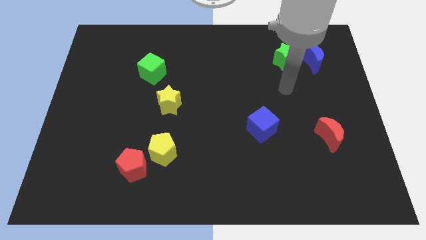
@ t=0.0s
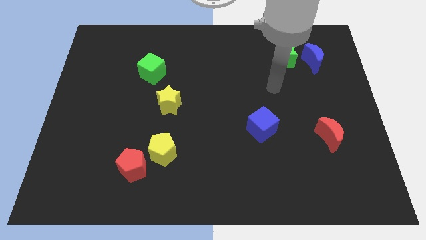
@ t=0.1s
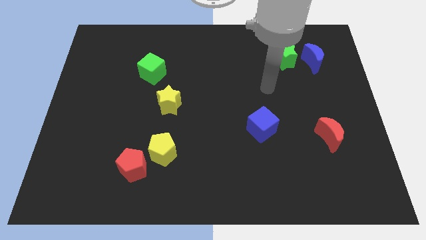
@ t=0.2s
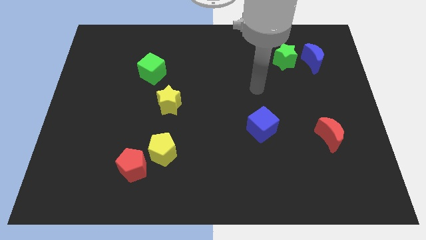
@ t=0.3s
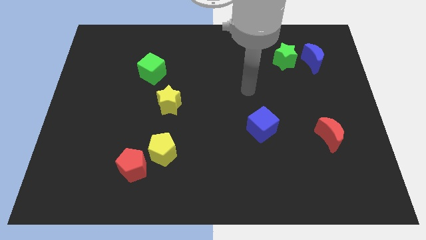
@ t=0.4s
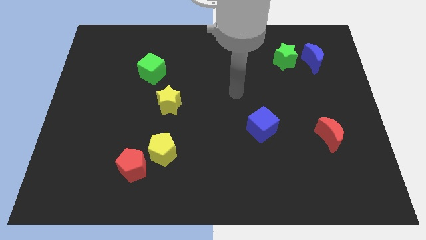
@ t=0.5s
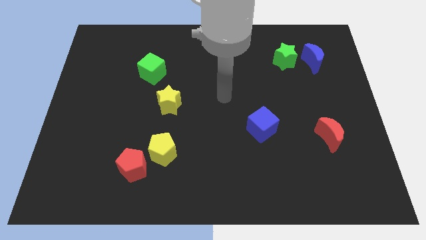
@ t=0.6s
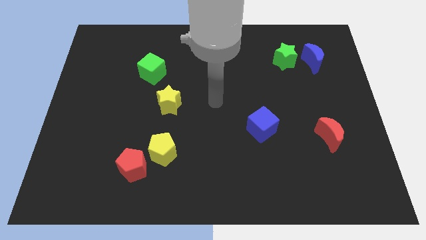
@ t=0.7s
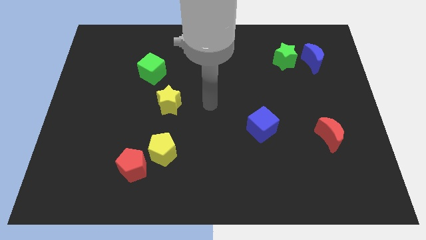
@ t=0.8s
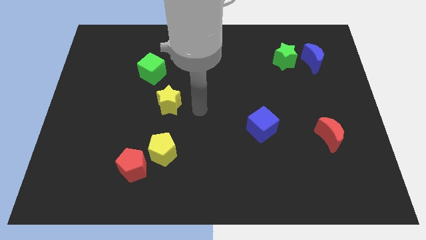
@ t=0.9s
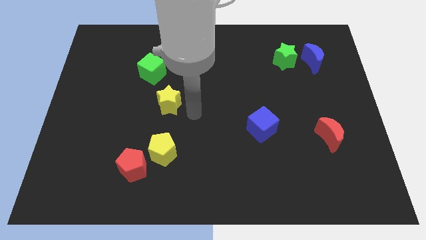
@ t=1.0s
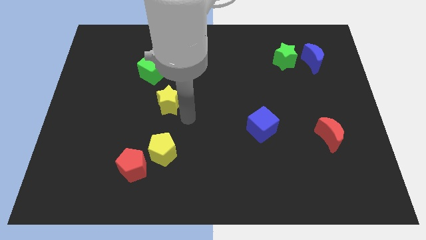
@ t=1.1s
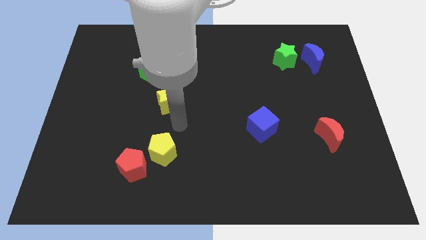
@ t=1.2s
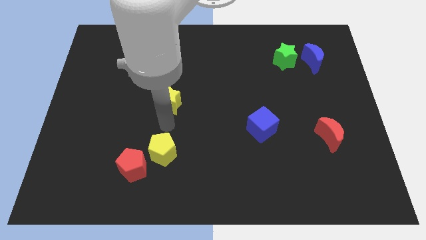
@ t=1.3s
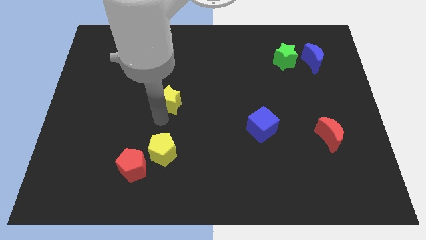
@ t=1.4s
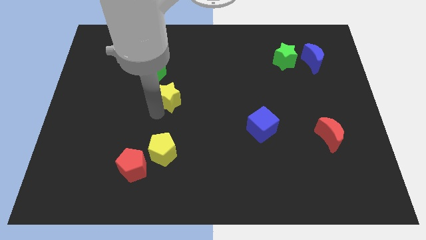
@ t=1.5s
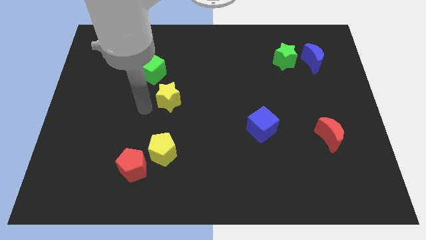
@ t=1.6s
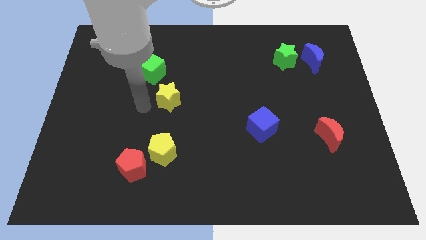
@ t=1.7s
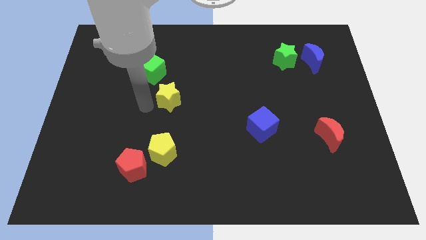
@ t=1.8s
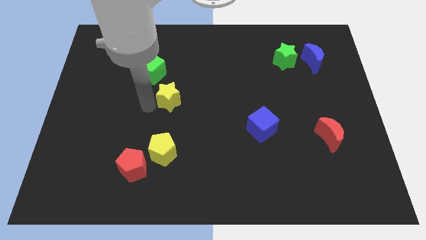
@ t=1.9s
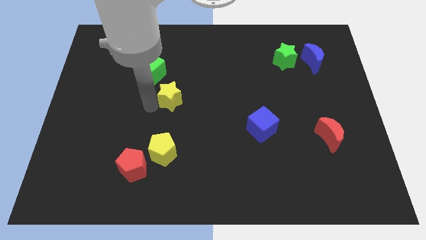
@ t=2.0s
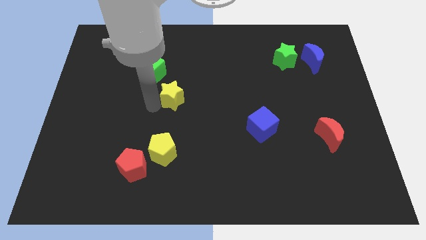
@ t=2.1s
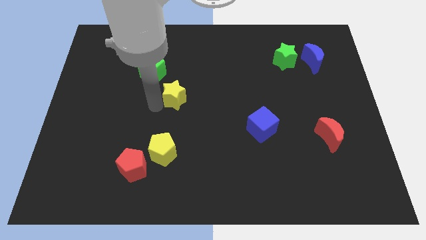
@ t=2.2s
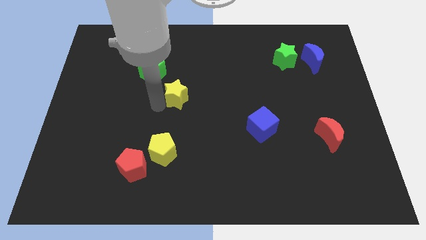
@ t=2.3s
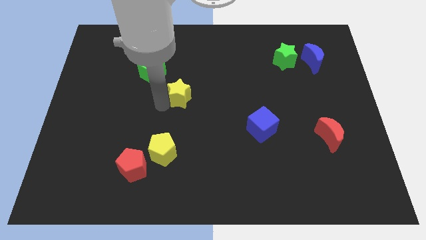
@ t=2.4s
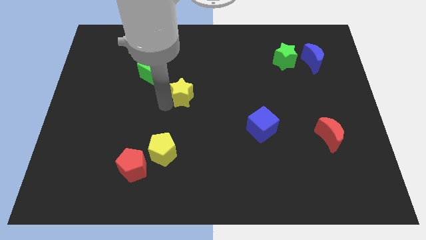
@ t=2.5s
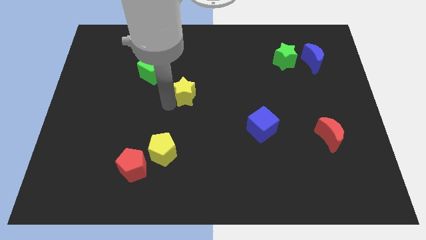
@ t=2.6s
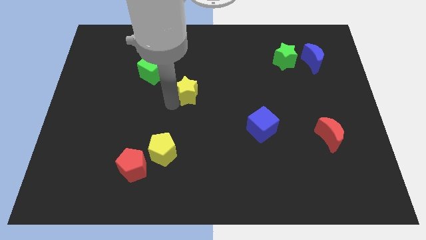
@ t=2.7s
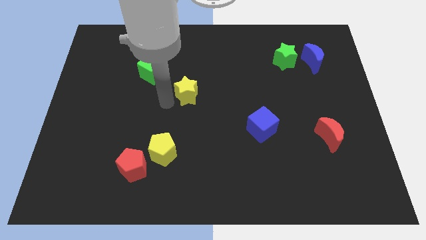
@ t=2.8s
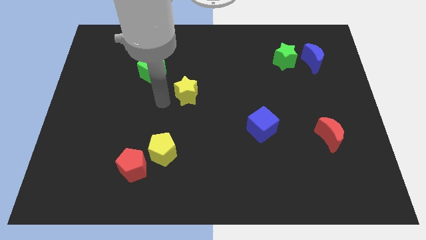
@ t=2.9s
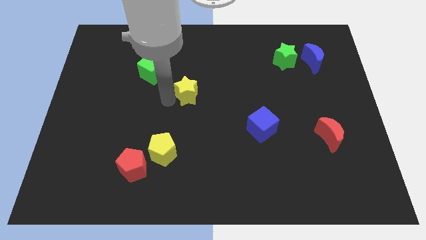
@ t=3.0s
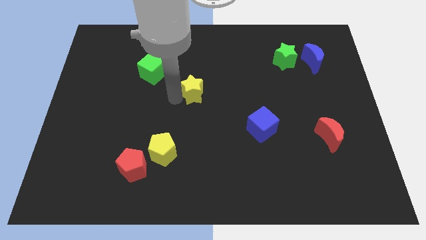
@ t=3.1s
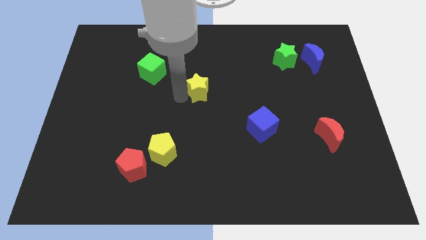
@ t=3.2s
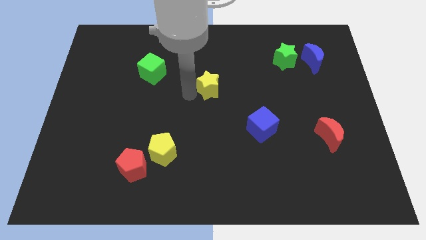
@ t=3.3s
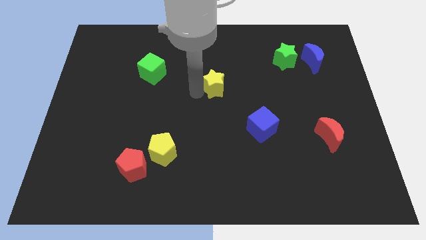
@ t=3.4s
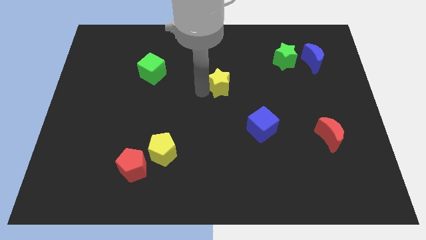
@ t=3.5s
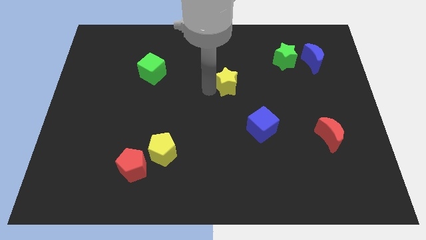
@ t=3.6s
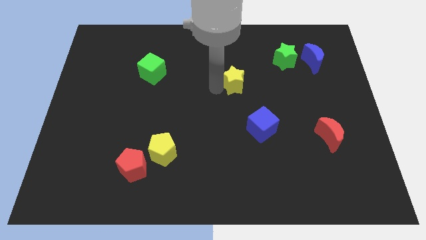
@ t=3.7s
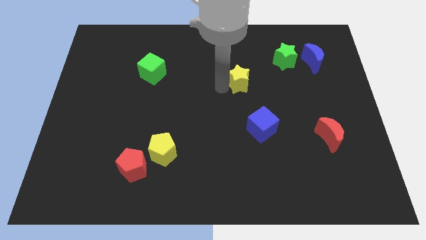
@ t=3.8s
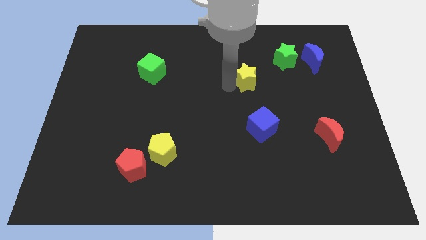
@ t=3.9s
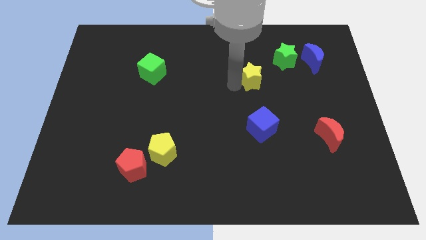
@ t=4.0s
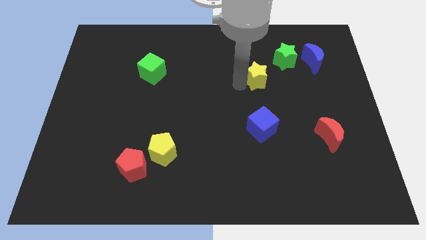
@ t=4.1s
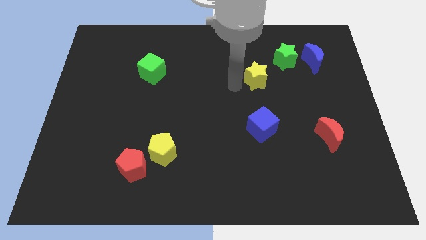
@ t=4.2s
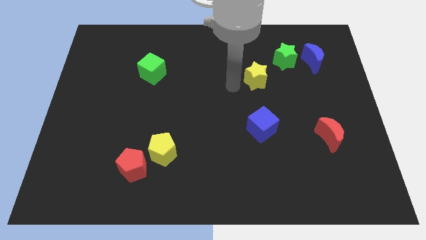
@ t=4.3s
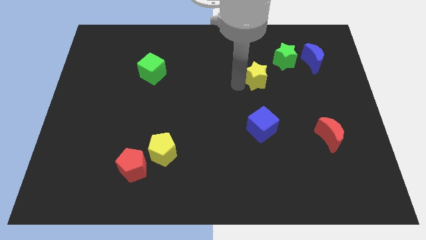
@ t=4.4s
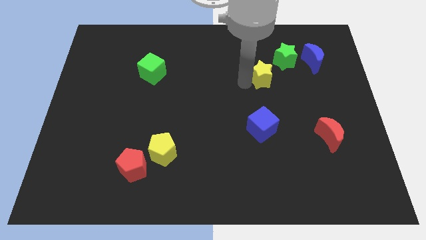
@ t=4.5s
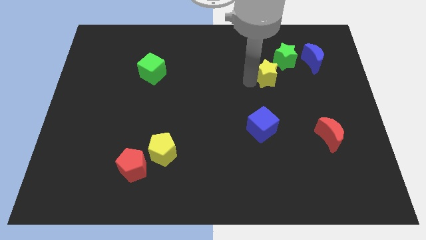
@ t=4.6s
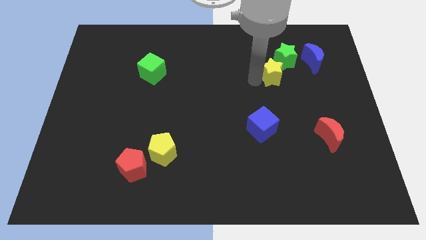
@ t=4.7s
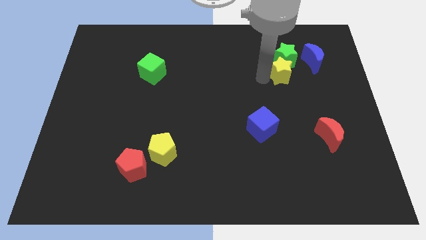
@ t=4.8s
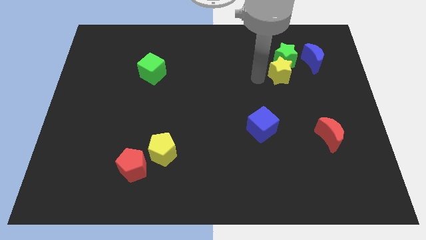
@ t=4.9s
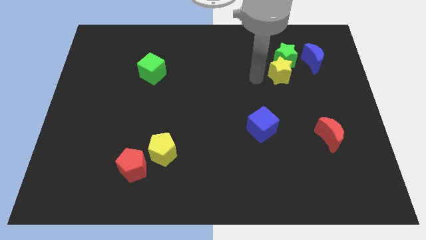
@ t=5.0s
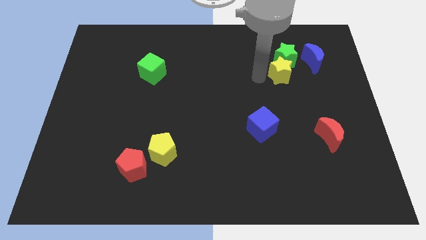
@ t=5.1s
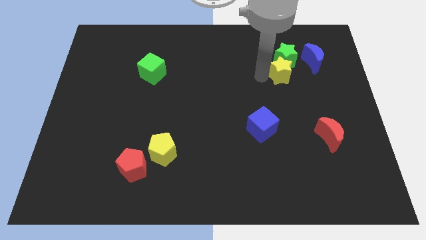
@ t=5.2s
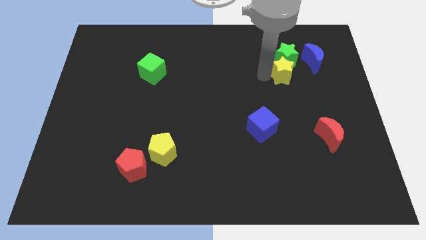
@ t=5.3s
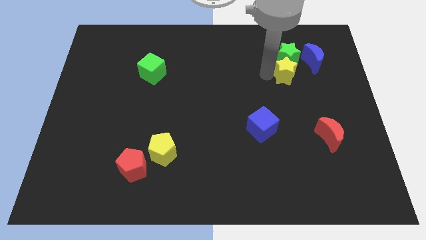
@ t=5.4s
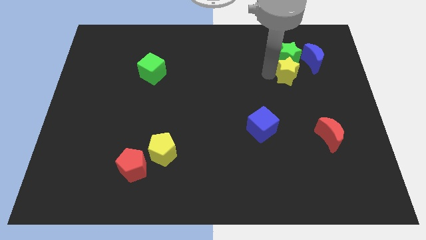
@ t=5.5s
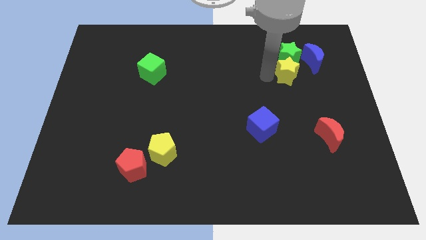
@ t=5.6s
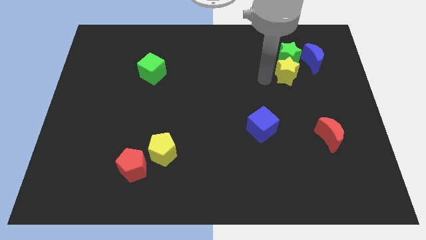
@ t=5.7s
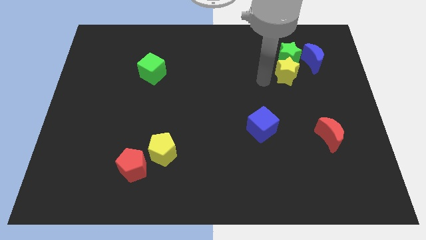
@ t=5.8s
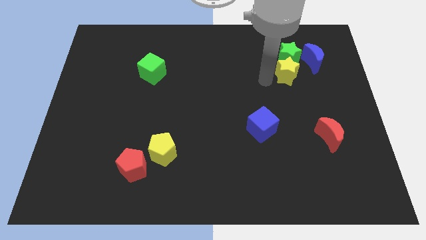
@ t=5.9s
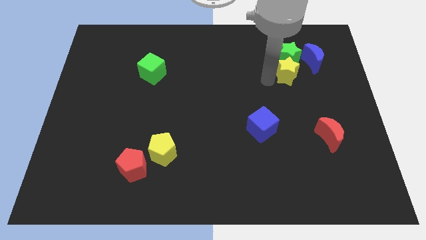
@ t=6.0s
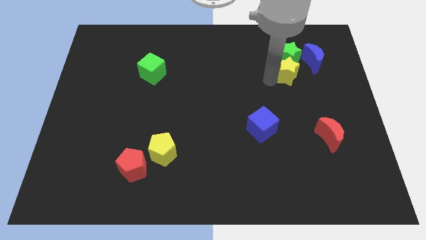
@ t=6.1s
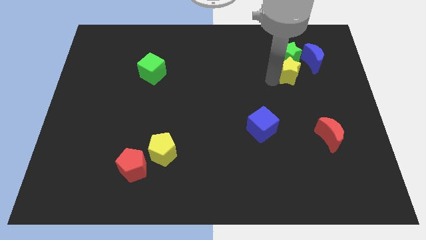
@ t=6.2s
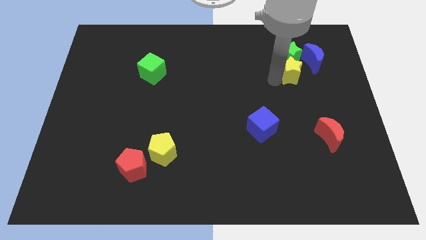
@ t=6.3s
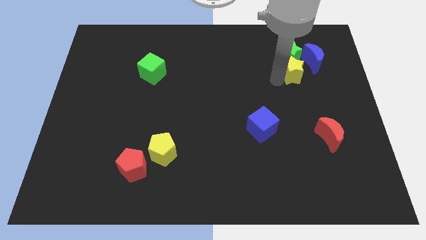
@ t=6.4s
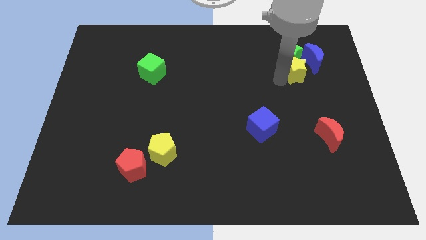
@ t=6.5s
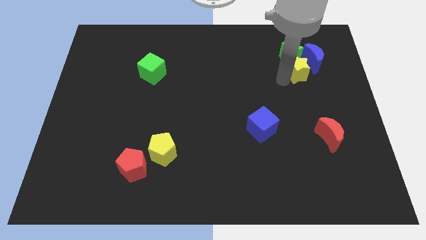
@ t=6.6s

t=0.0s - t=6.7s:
move the yellow star close to the blue moon
